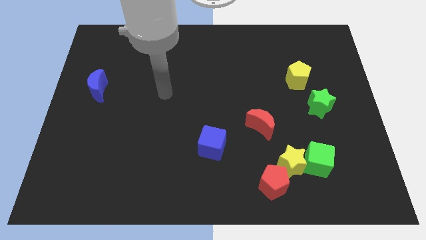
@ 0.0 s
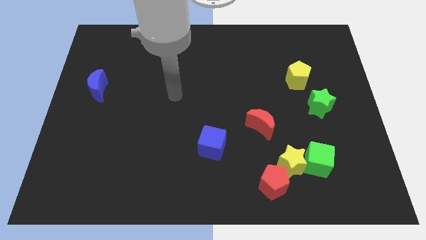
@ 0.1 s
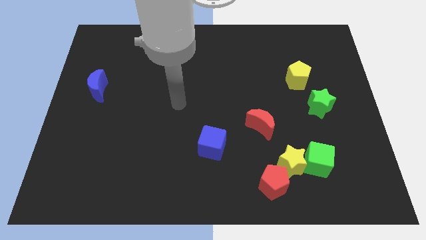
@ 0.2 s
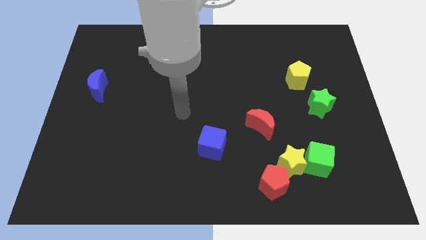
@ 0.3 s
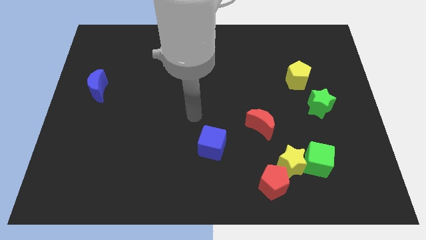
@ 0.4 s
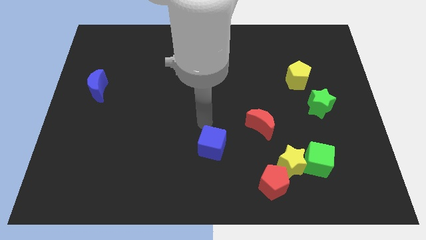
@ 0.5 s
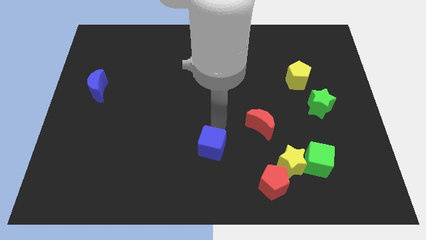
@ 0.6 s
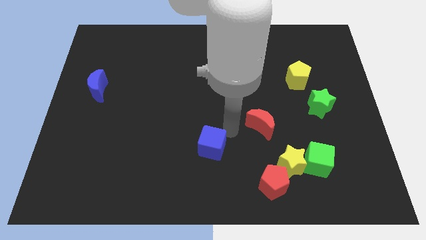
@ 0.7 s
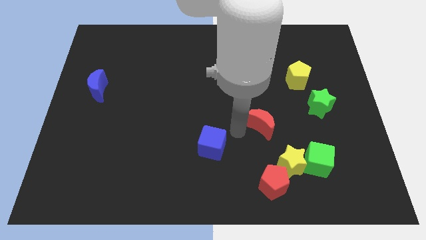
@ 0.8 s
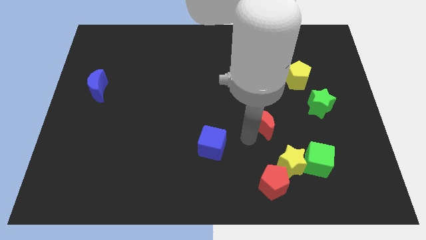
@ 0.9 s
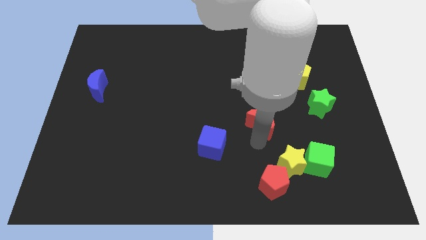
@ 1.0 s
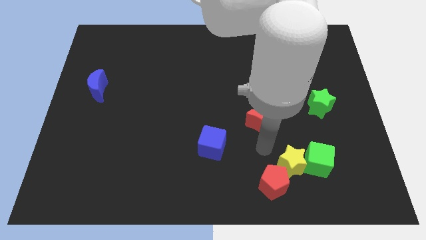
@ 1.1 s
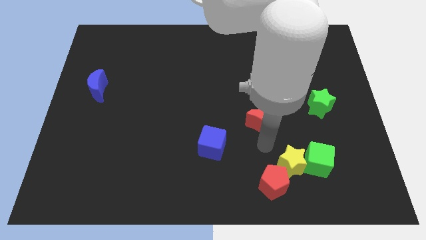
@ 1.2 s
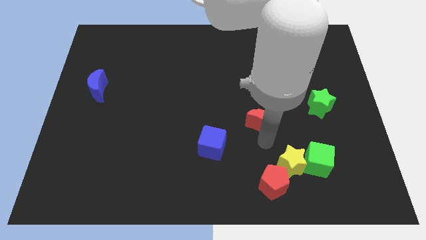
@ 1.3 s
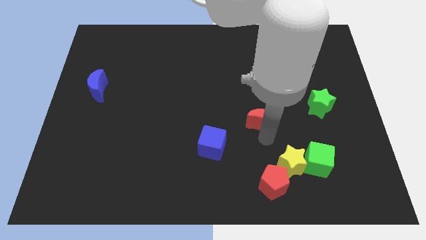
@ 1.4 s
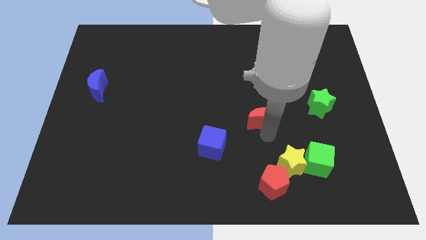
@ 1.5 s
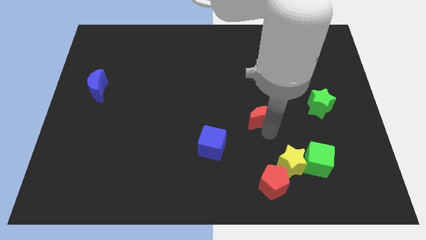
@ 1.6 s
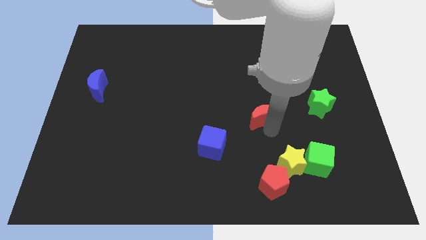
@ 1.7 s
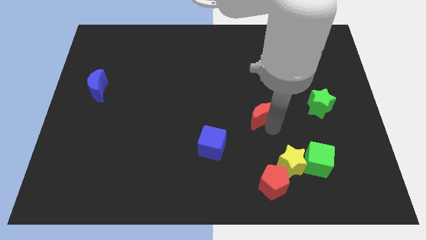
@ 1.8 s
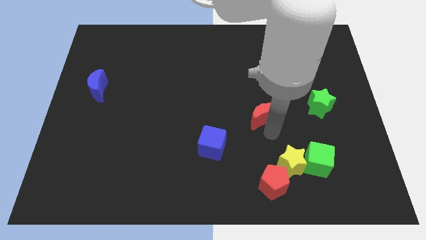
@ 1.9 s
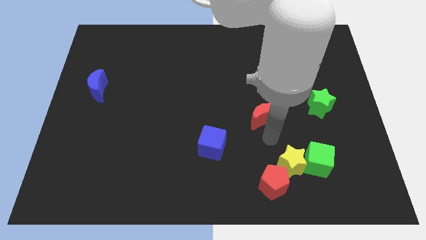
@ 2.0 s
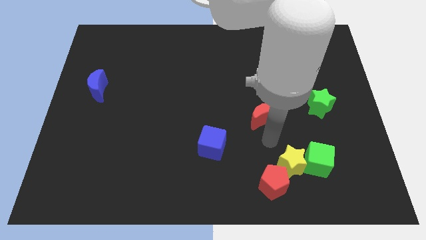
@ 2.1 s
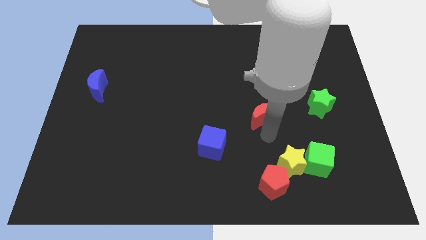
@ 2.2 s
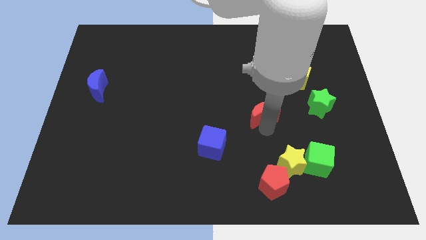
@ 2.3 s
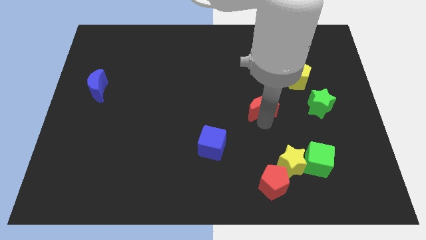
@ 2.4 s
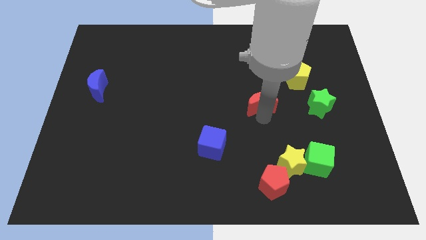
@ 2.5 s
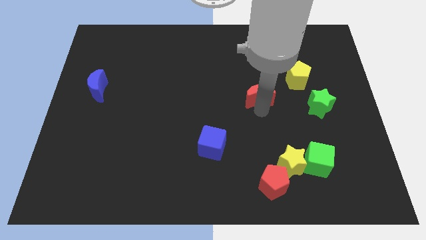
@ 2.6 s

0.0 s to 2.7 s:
slightly slide the red moon upwards

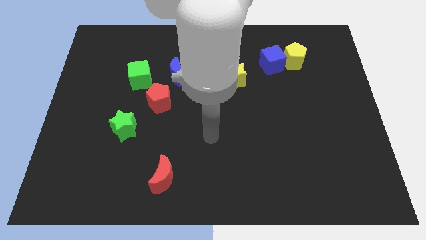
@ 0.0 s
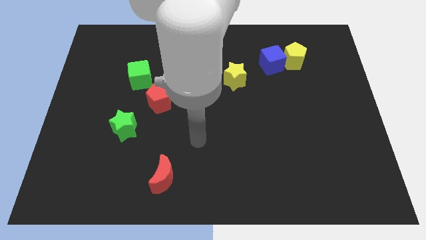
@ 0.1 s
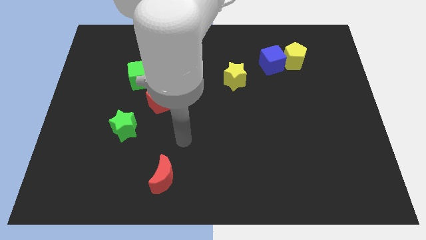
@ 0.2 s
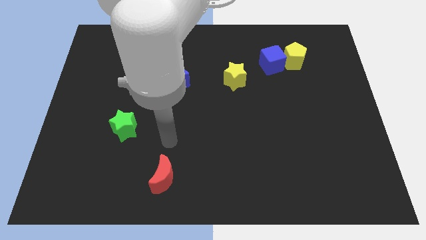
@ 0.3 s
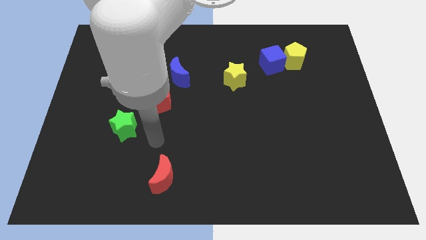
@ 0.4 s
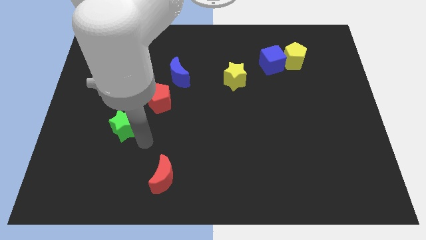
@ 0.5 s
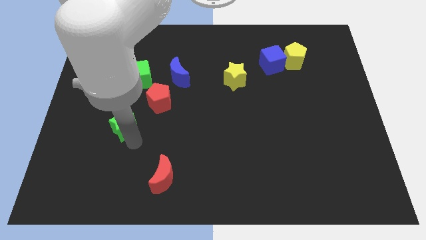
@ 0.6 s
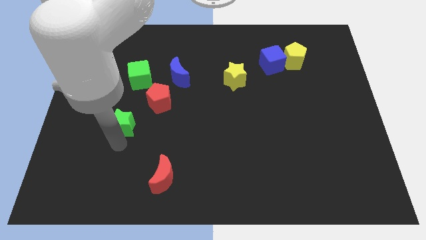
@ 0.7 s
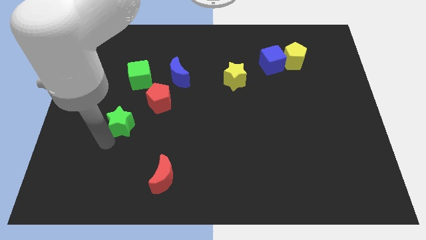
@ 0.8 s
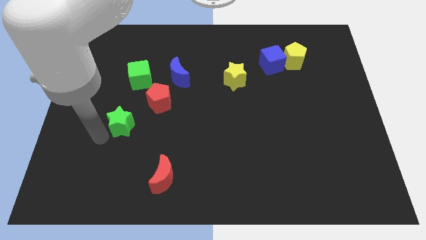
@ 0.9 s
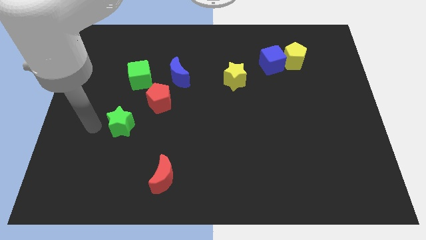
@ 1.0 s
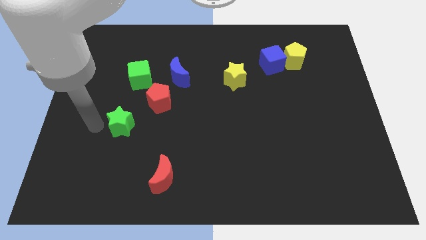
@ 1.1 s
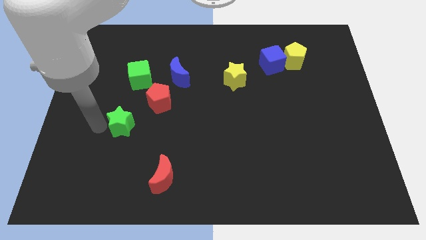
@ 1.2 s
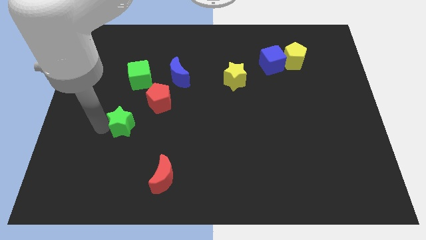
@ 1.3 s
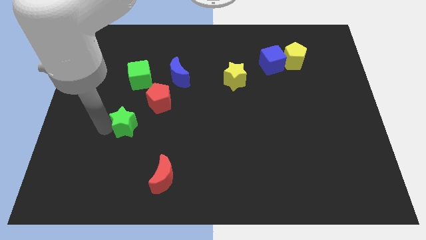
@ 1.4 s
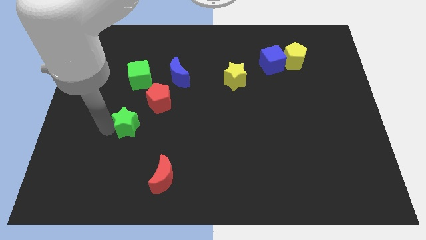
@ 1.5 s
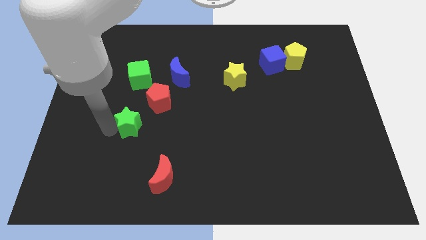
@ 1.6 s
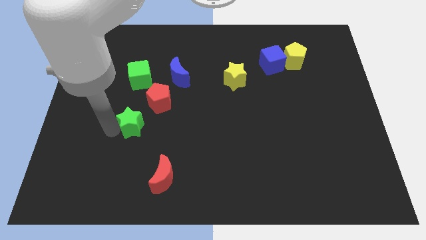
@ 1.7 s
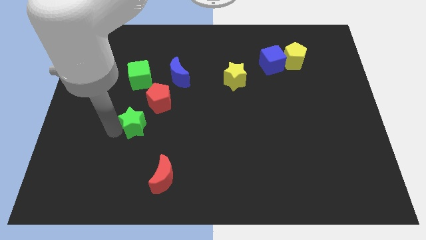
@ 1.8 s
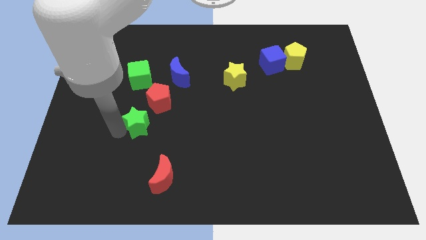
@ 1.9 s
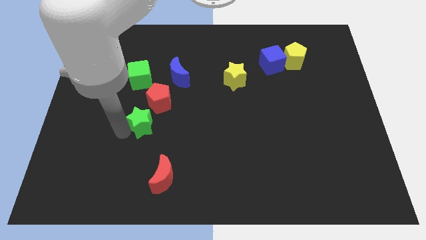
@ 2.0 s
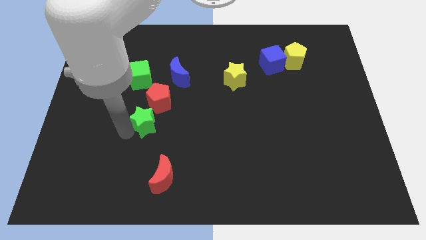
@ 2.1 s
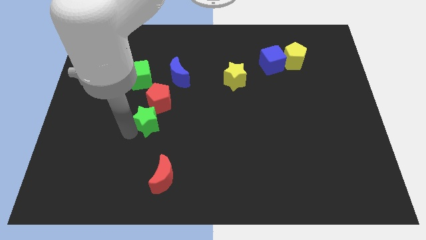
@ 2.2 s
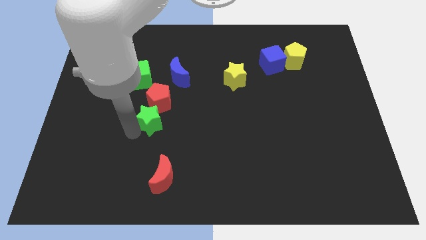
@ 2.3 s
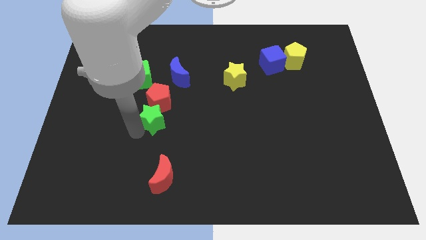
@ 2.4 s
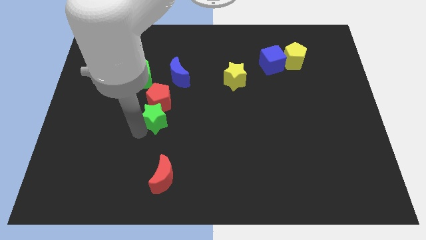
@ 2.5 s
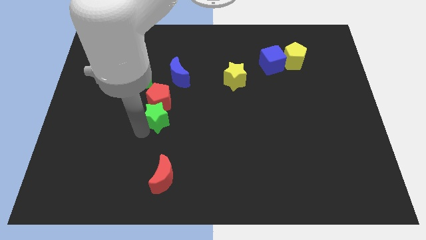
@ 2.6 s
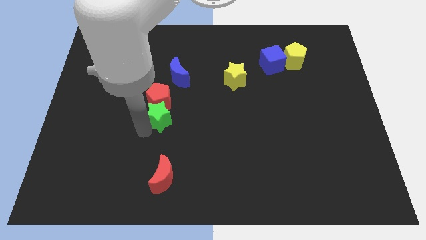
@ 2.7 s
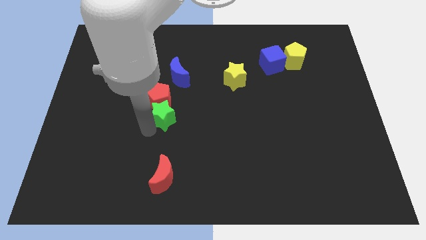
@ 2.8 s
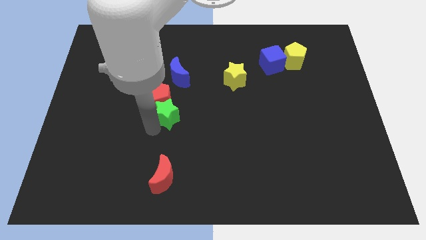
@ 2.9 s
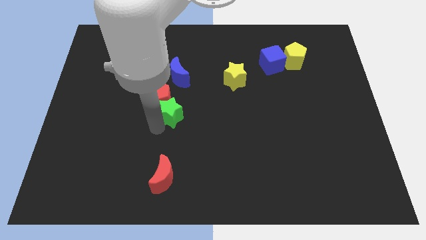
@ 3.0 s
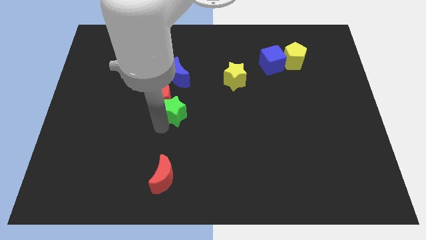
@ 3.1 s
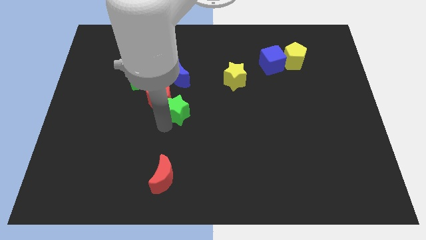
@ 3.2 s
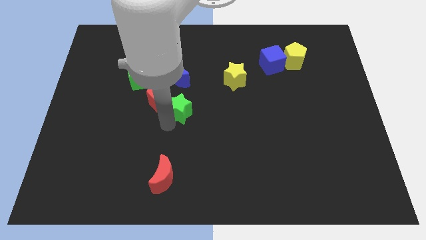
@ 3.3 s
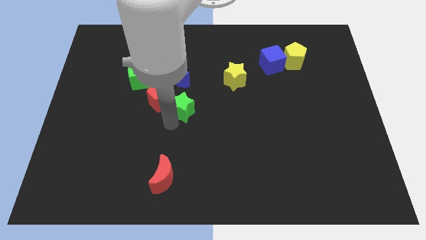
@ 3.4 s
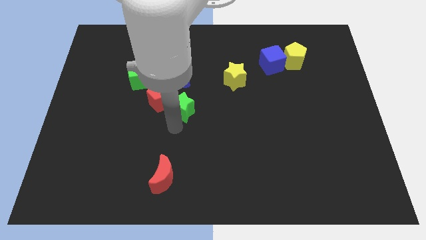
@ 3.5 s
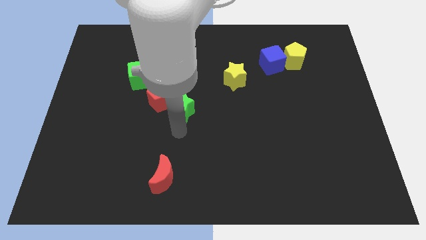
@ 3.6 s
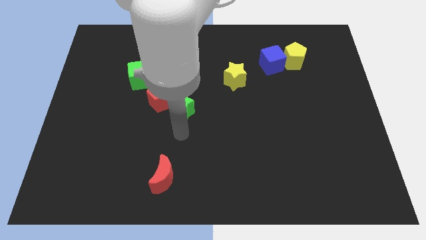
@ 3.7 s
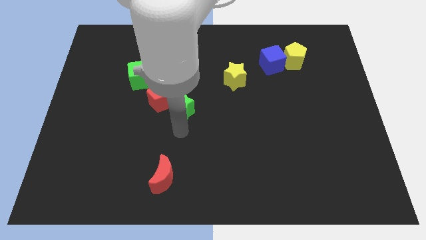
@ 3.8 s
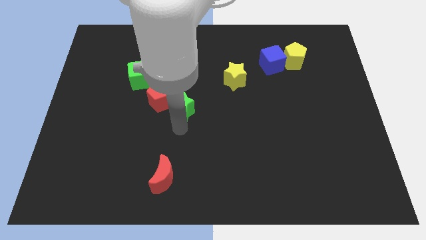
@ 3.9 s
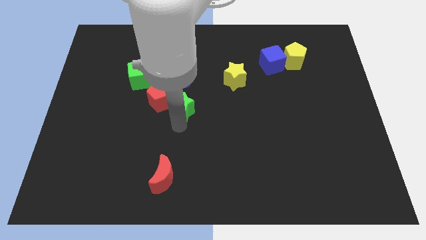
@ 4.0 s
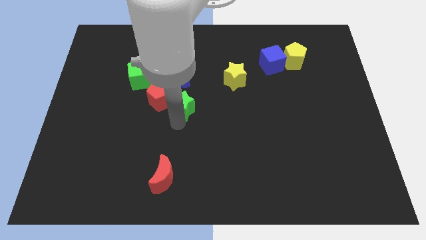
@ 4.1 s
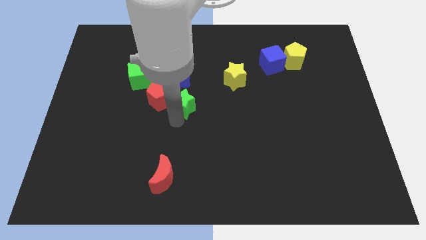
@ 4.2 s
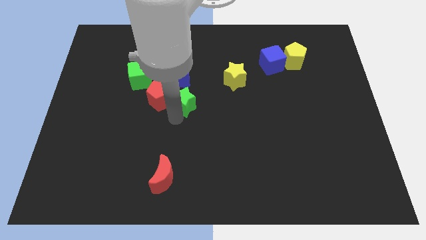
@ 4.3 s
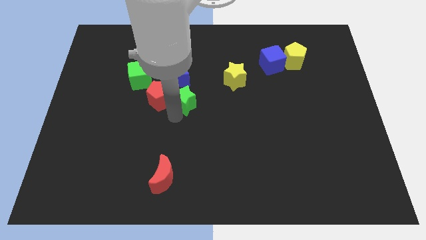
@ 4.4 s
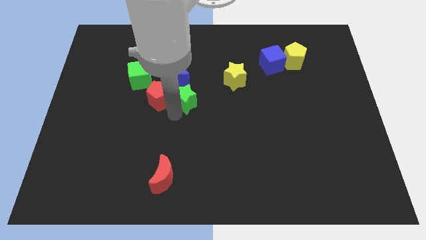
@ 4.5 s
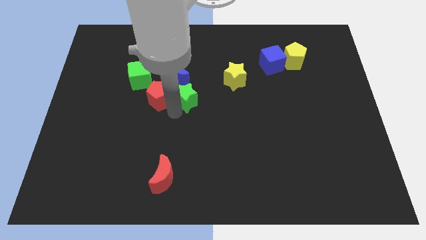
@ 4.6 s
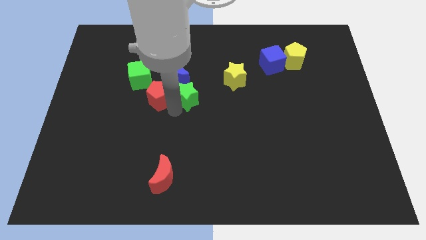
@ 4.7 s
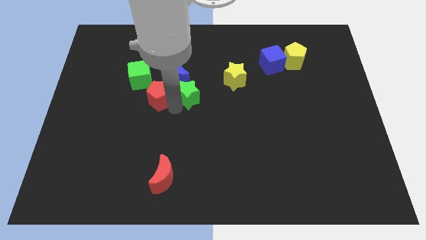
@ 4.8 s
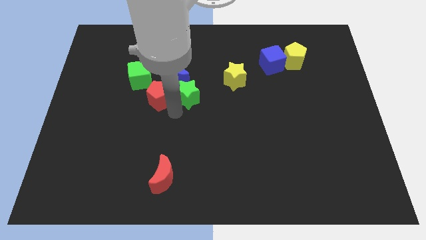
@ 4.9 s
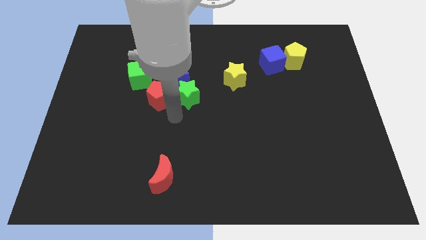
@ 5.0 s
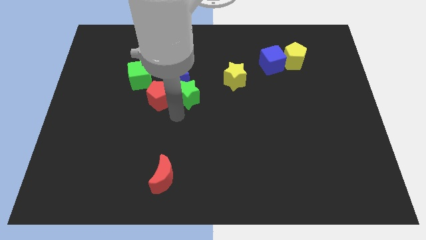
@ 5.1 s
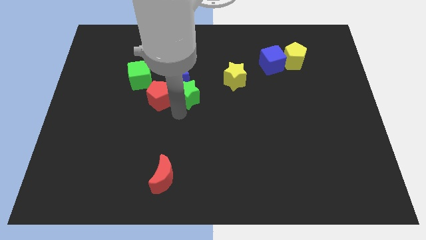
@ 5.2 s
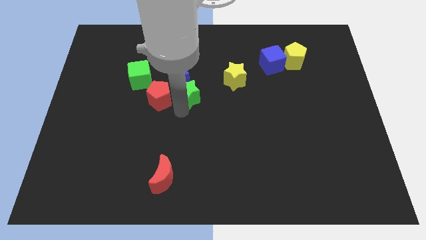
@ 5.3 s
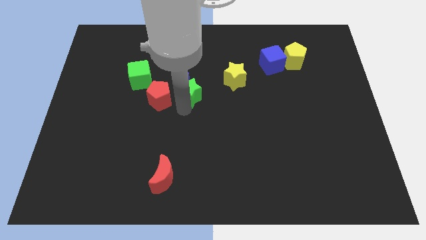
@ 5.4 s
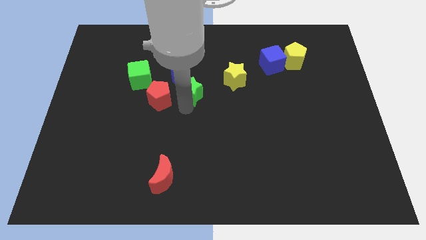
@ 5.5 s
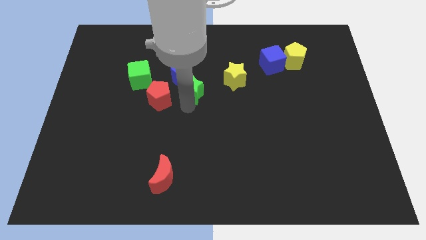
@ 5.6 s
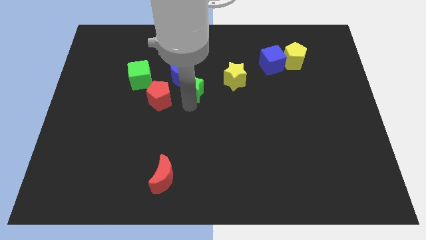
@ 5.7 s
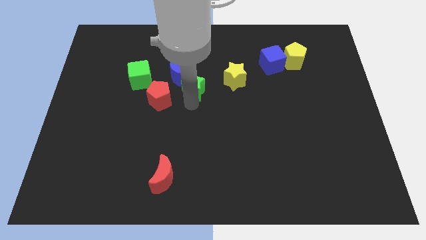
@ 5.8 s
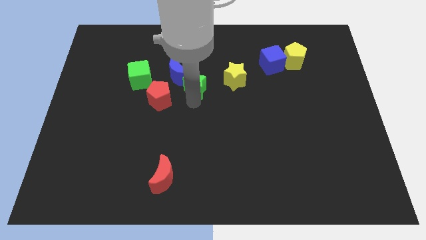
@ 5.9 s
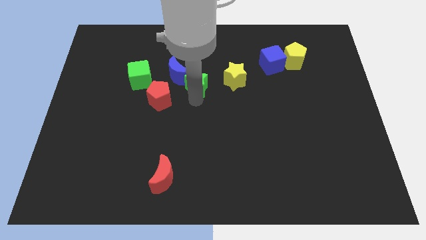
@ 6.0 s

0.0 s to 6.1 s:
slide the green star upwards and to the right
